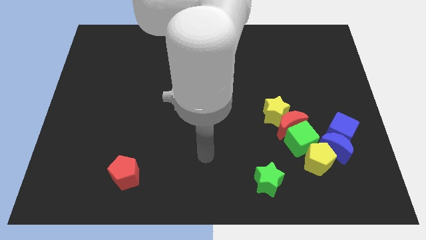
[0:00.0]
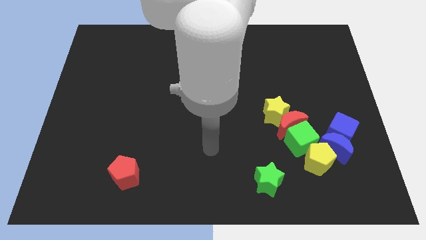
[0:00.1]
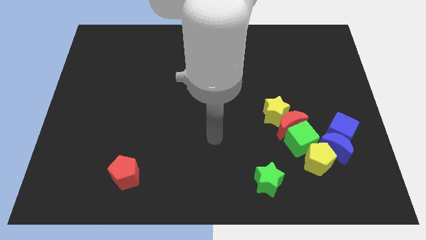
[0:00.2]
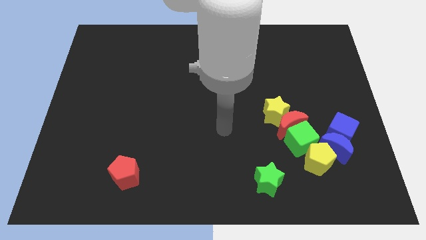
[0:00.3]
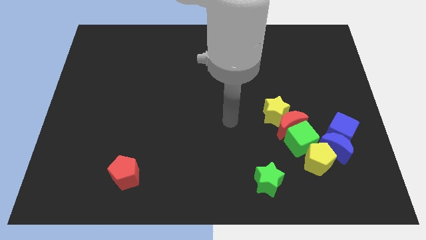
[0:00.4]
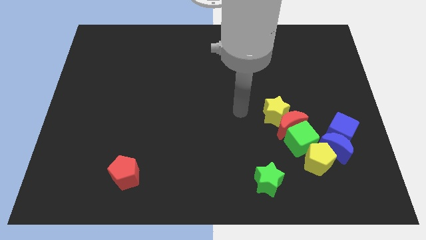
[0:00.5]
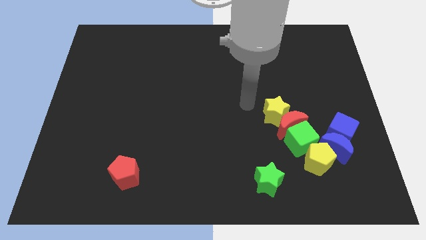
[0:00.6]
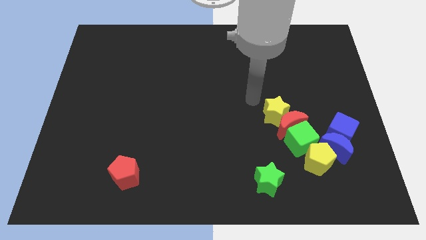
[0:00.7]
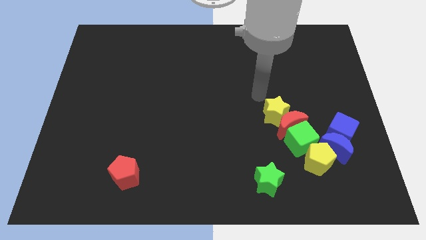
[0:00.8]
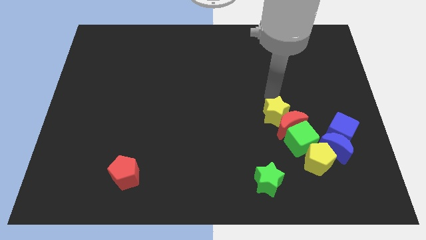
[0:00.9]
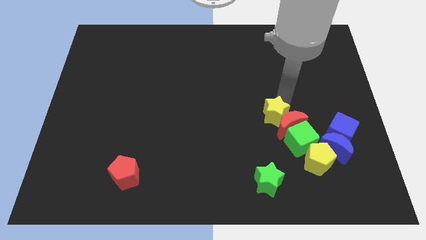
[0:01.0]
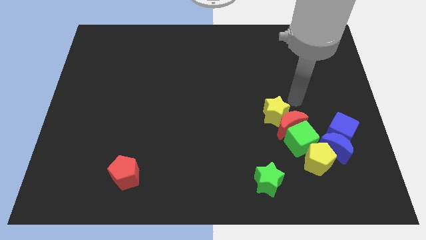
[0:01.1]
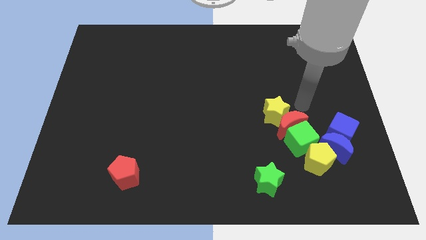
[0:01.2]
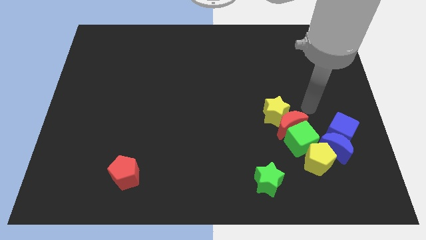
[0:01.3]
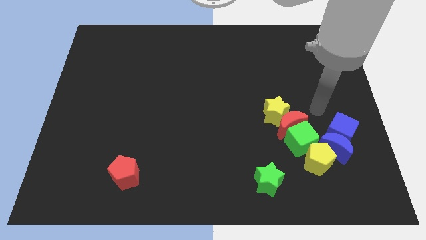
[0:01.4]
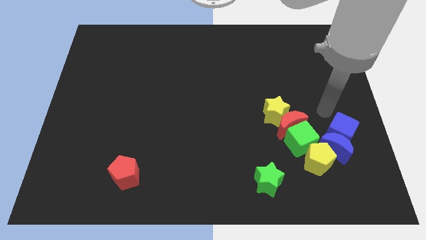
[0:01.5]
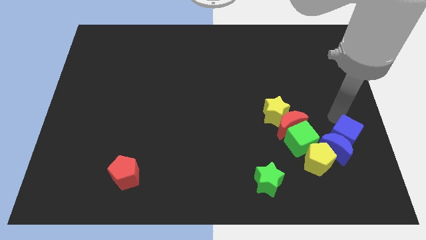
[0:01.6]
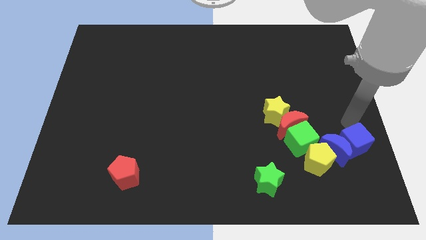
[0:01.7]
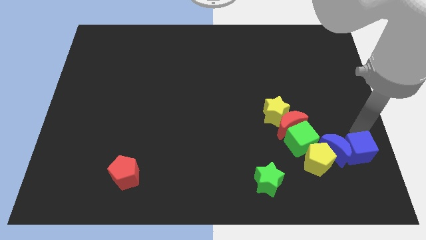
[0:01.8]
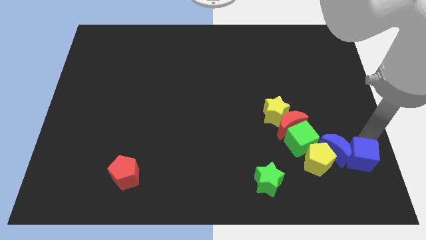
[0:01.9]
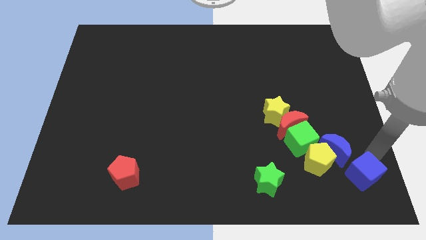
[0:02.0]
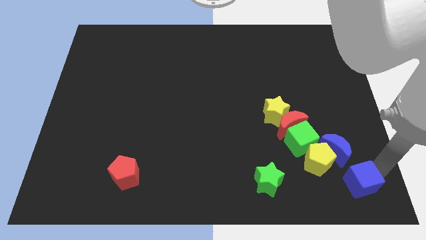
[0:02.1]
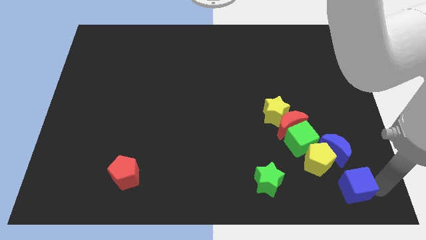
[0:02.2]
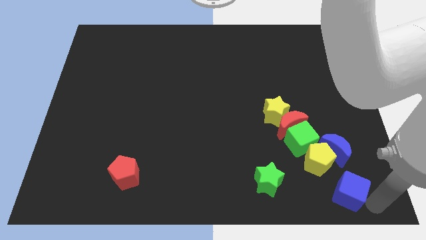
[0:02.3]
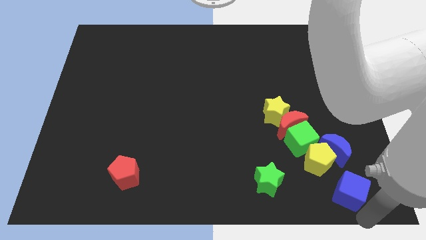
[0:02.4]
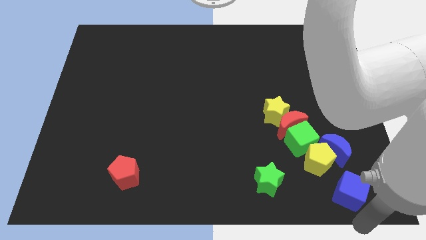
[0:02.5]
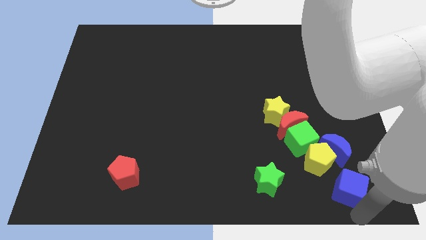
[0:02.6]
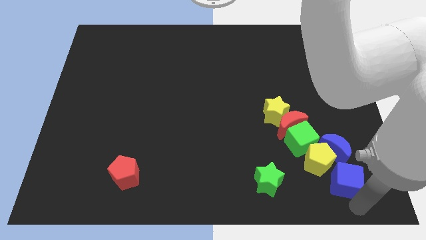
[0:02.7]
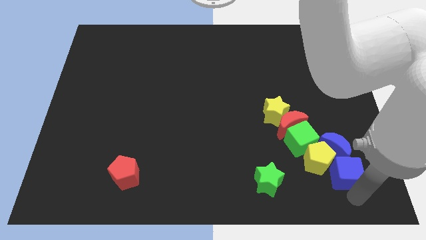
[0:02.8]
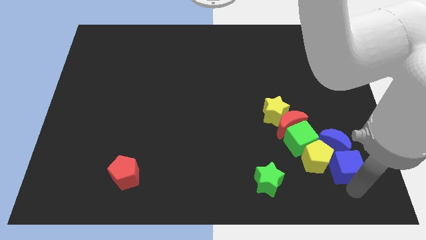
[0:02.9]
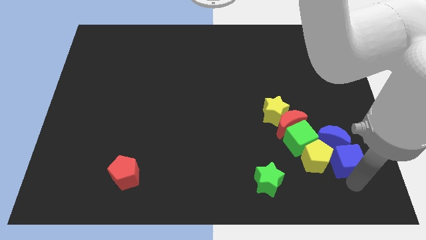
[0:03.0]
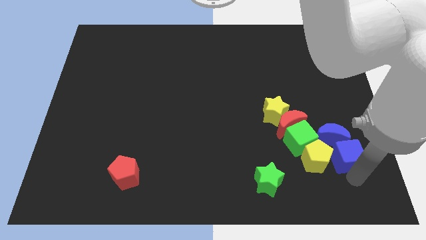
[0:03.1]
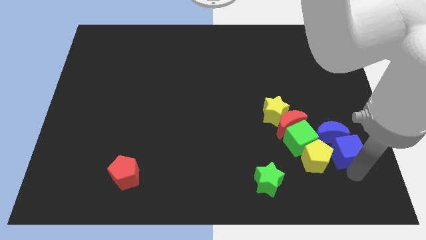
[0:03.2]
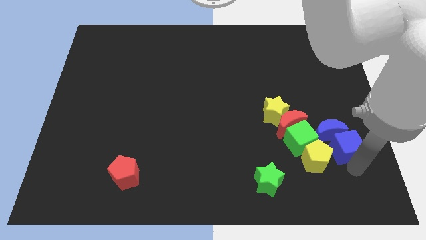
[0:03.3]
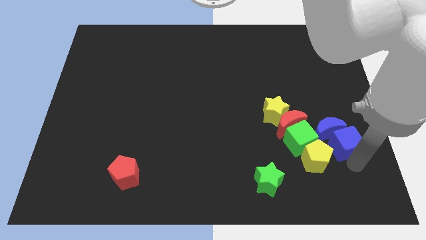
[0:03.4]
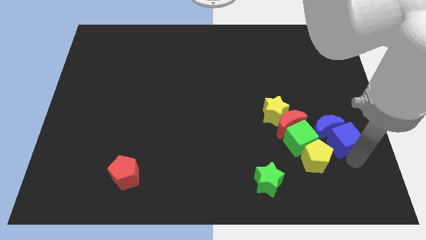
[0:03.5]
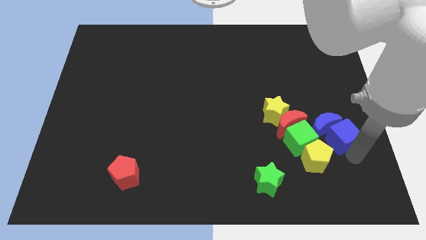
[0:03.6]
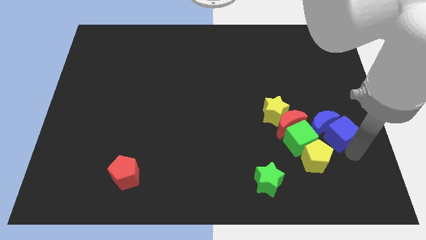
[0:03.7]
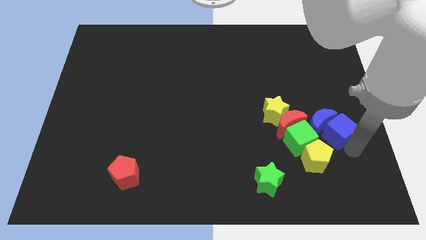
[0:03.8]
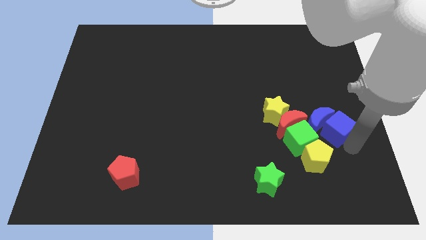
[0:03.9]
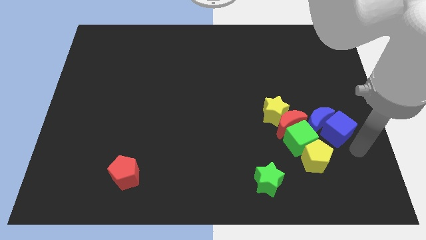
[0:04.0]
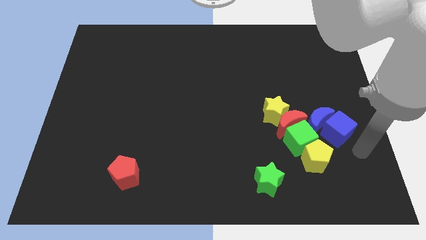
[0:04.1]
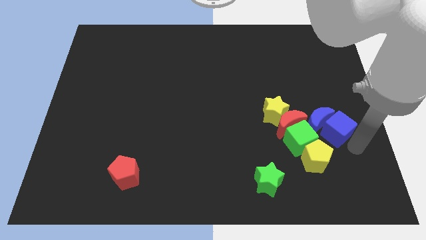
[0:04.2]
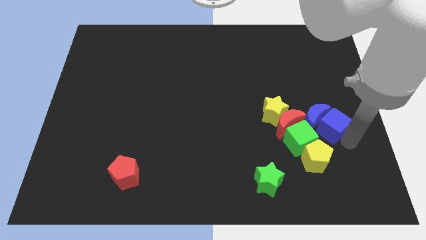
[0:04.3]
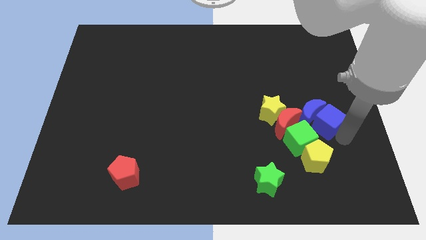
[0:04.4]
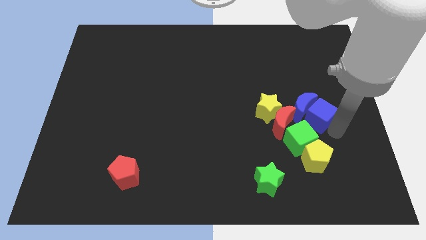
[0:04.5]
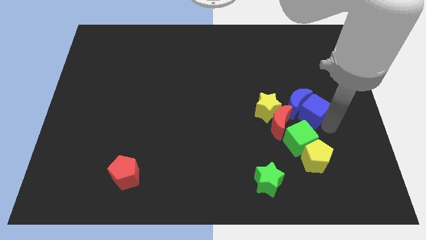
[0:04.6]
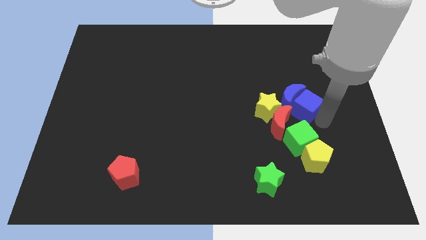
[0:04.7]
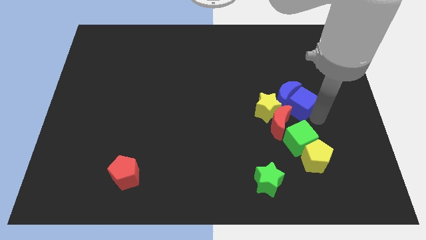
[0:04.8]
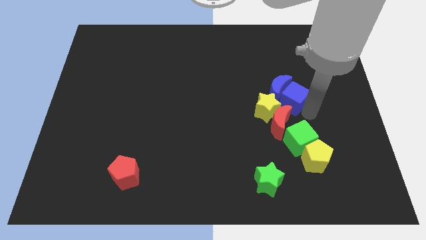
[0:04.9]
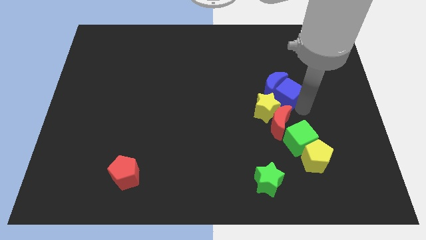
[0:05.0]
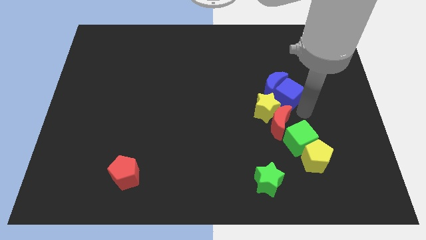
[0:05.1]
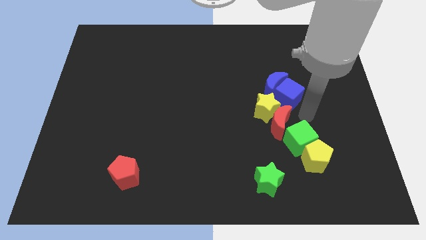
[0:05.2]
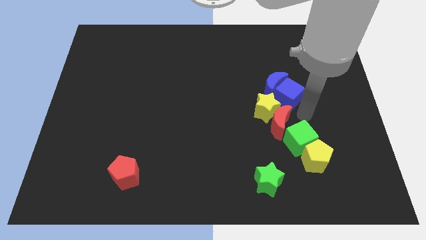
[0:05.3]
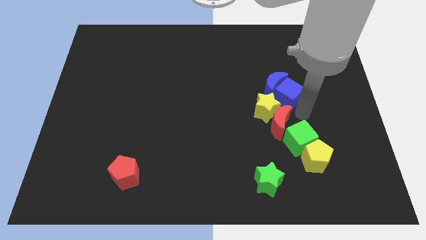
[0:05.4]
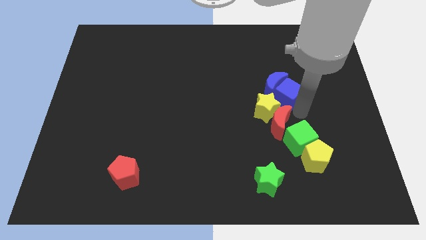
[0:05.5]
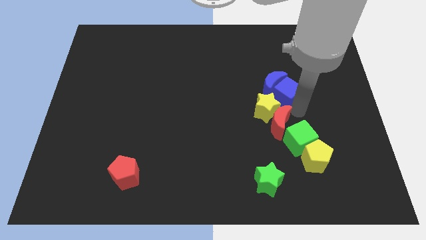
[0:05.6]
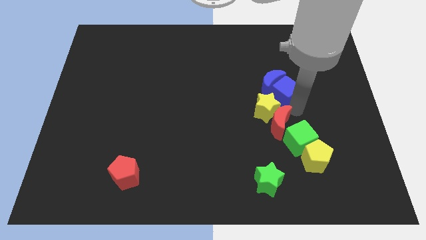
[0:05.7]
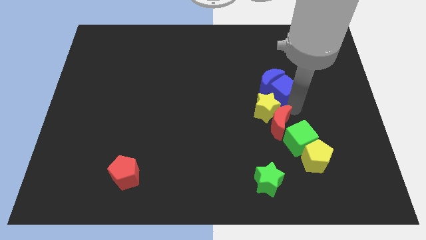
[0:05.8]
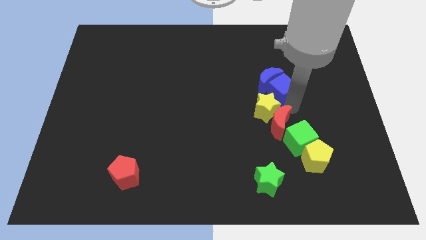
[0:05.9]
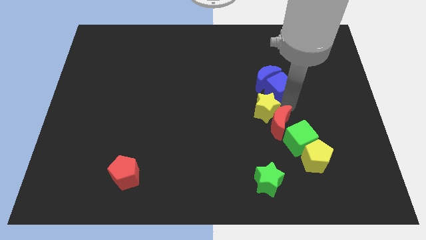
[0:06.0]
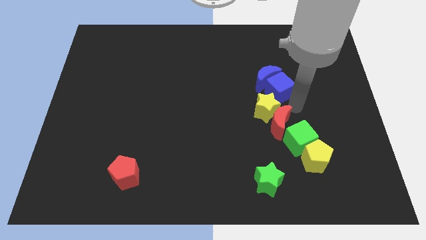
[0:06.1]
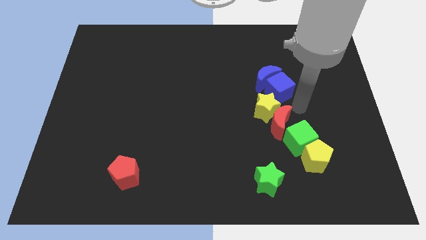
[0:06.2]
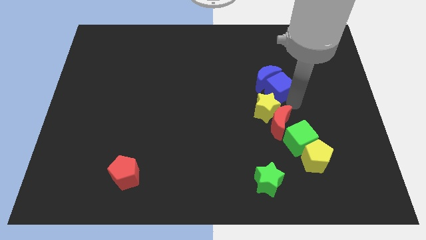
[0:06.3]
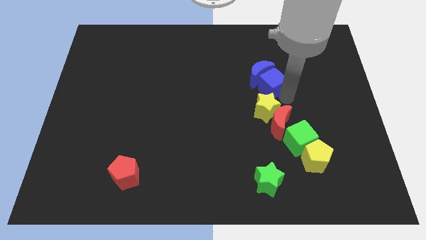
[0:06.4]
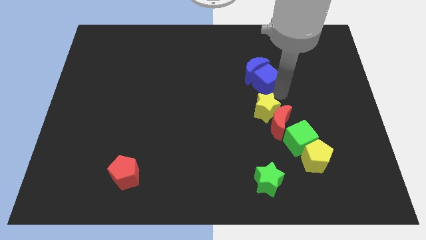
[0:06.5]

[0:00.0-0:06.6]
push the blue cube up and to the left

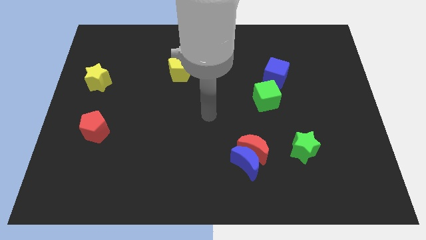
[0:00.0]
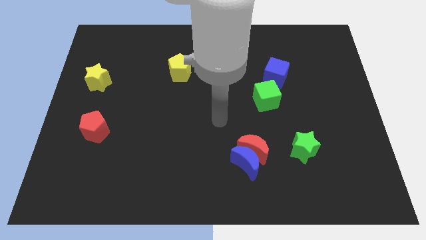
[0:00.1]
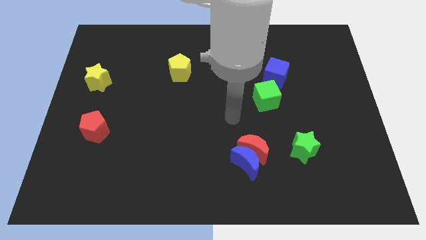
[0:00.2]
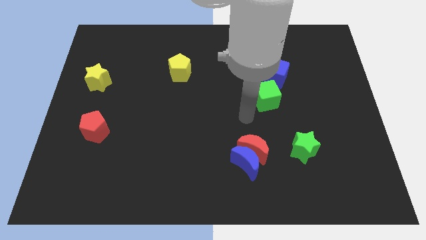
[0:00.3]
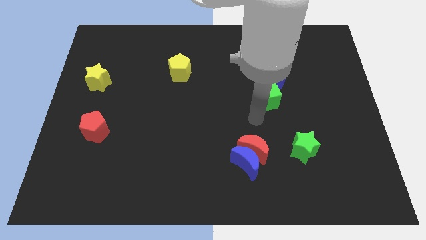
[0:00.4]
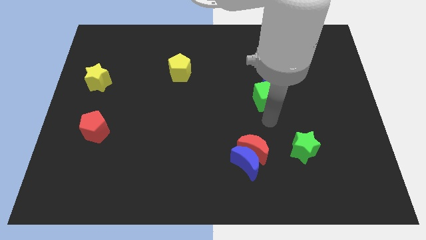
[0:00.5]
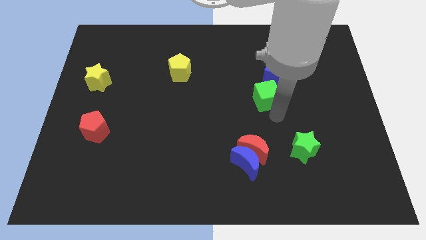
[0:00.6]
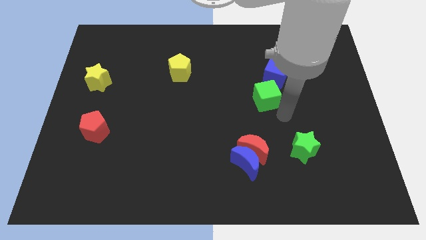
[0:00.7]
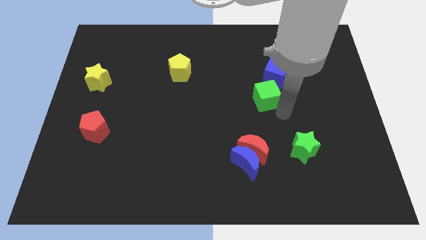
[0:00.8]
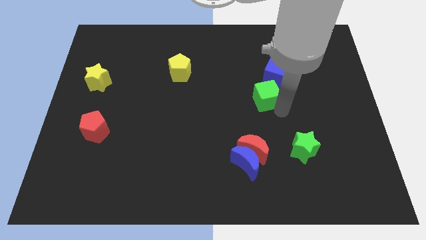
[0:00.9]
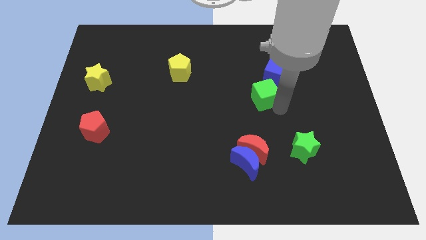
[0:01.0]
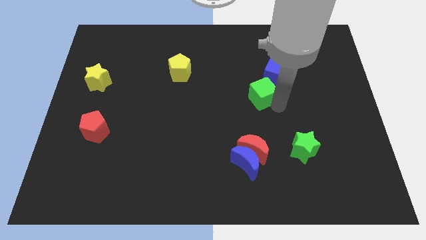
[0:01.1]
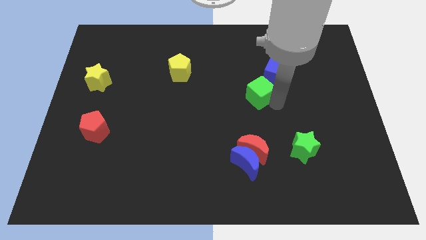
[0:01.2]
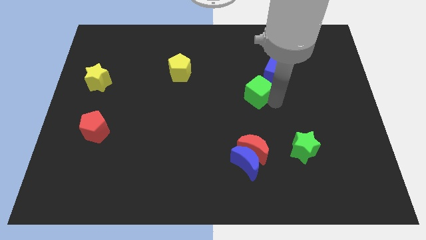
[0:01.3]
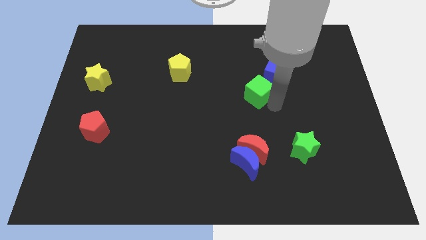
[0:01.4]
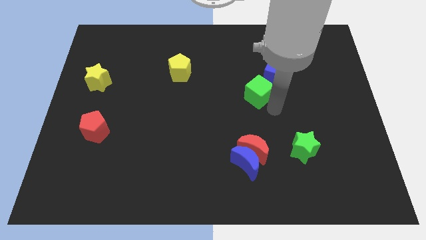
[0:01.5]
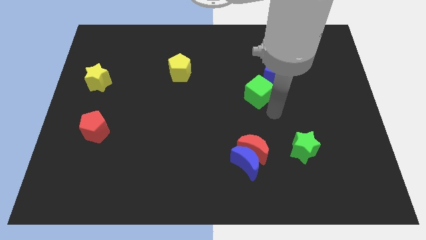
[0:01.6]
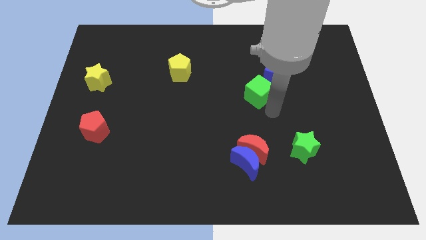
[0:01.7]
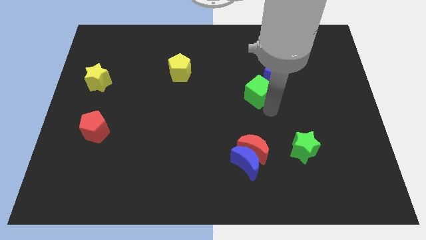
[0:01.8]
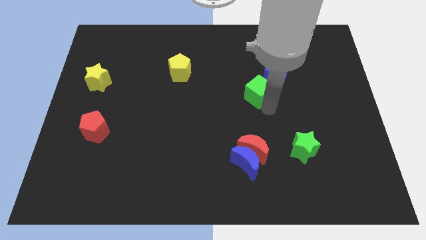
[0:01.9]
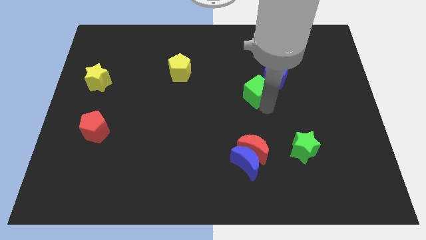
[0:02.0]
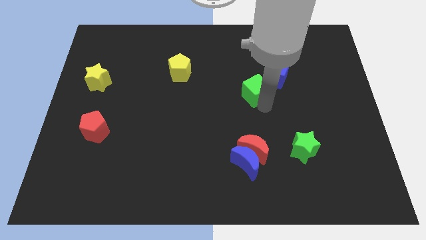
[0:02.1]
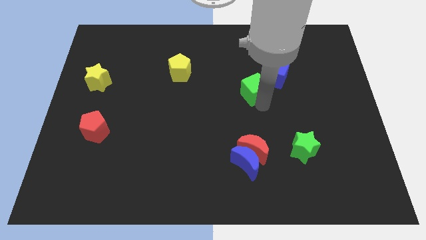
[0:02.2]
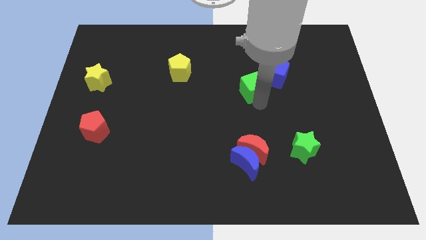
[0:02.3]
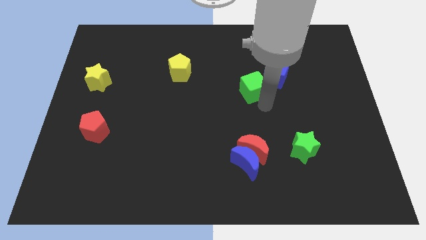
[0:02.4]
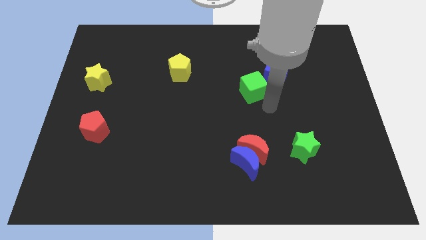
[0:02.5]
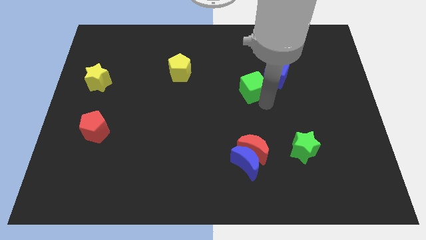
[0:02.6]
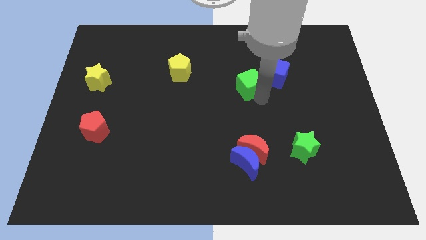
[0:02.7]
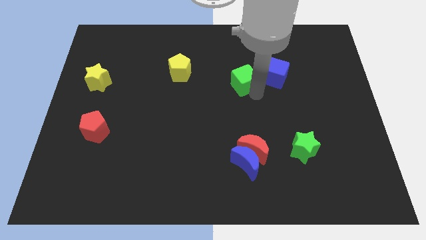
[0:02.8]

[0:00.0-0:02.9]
push the green cube upwards and left slightly
